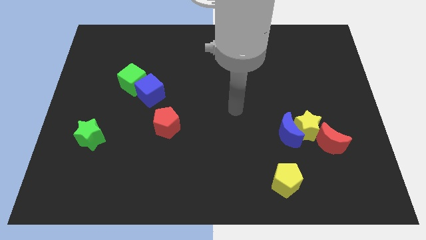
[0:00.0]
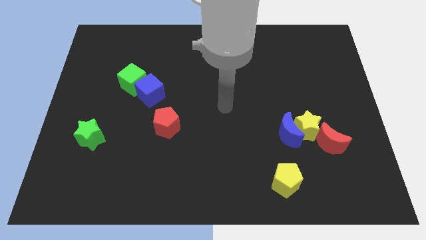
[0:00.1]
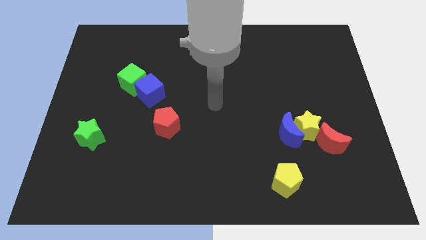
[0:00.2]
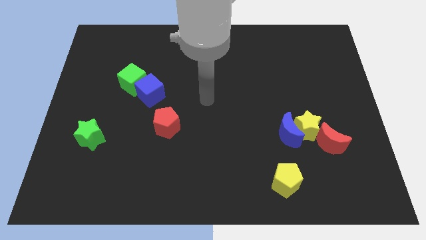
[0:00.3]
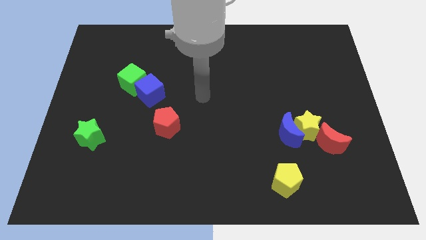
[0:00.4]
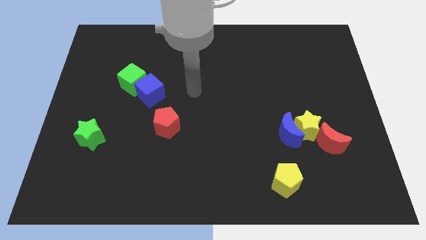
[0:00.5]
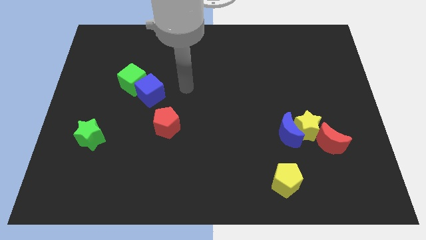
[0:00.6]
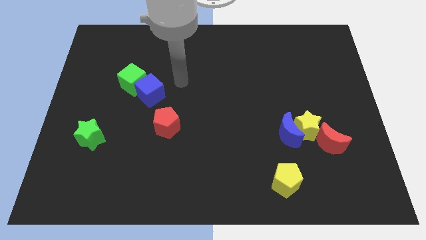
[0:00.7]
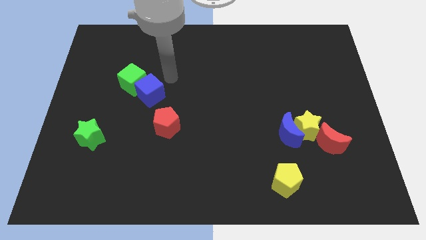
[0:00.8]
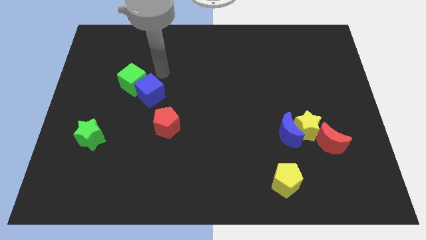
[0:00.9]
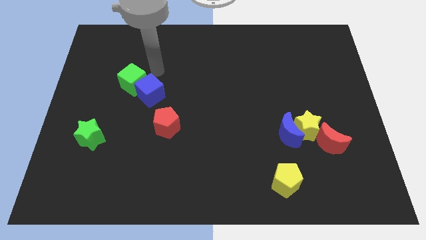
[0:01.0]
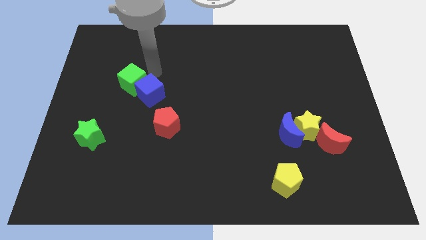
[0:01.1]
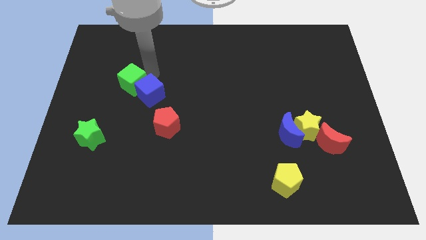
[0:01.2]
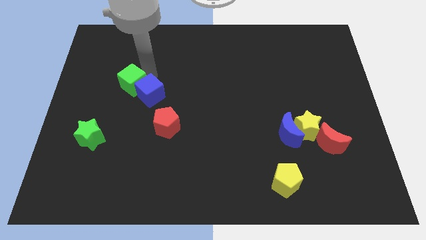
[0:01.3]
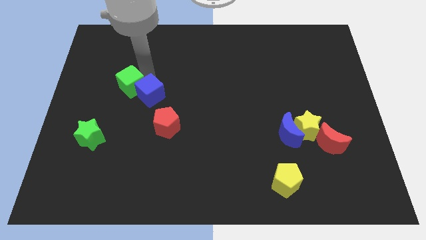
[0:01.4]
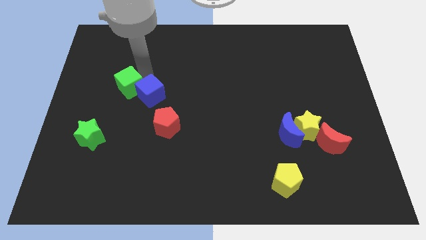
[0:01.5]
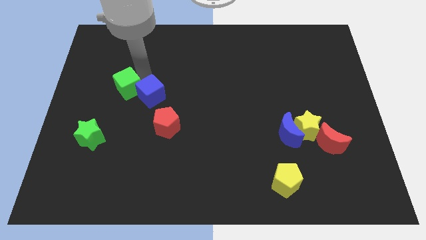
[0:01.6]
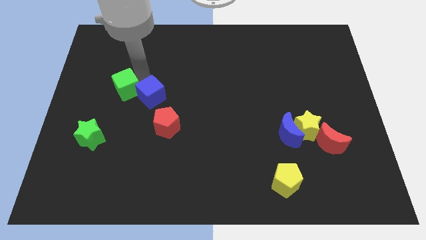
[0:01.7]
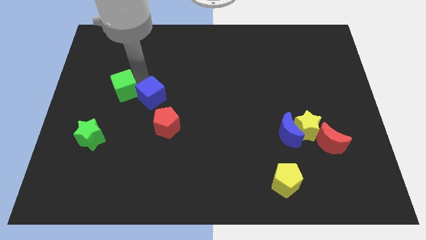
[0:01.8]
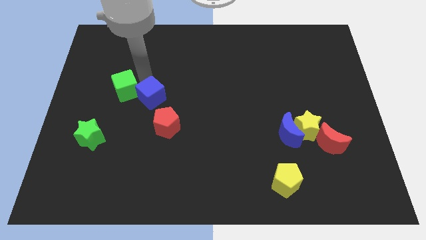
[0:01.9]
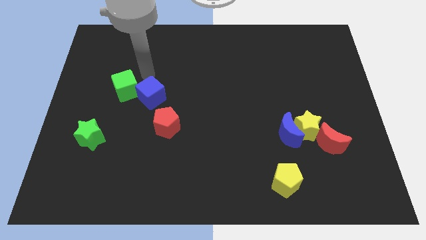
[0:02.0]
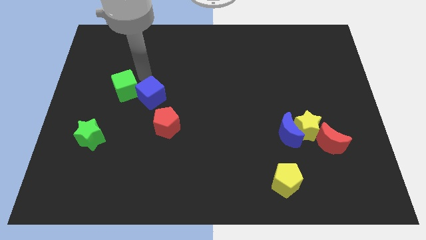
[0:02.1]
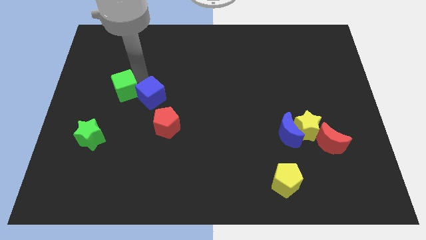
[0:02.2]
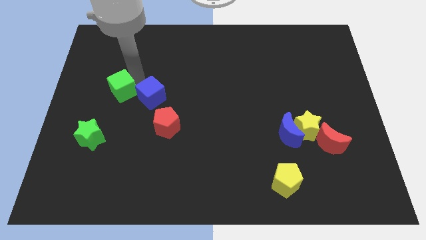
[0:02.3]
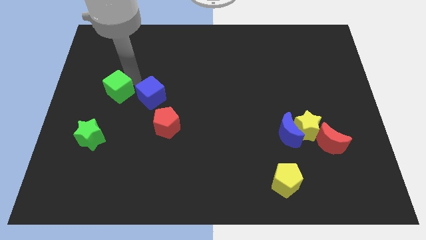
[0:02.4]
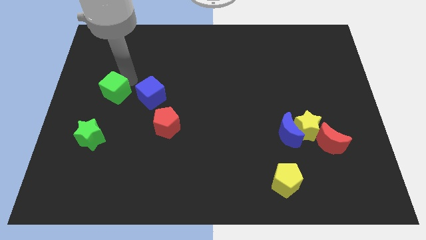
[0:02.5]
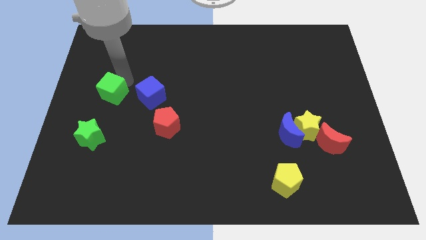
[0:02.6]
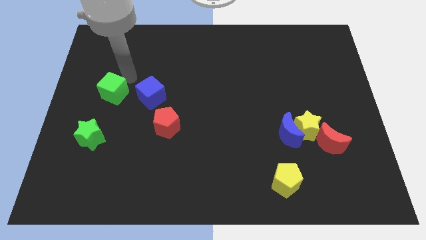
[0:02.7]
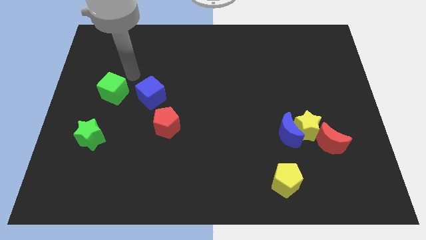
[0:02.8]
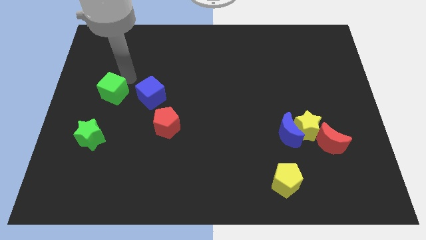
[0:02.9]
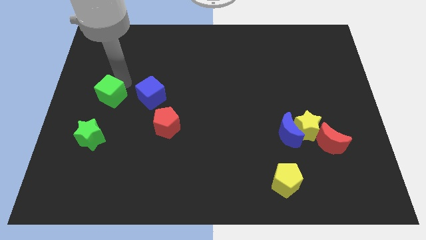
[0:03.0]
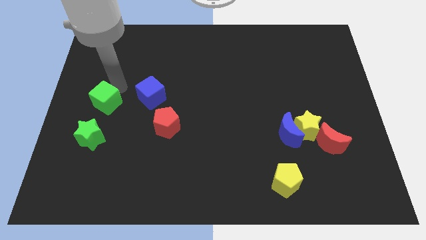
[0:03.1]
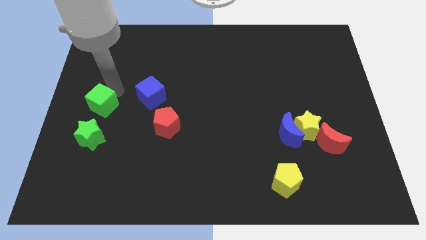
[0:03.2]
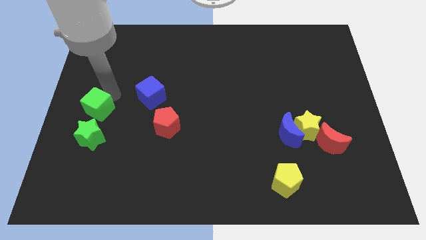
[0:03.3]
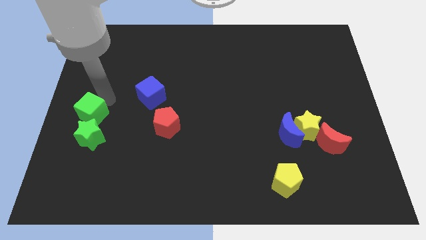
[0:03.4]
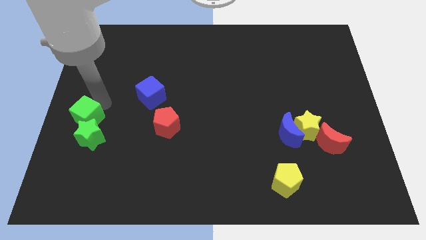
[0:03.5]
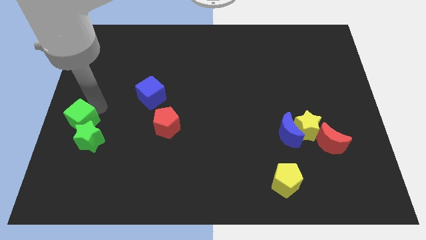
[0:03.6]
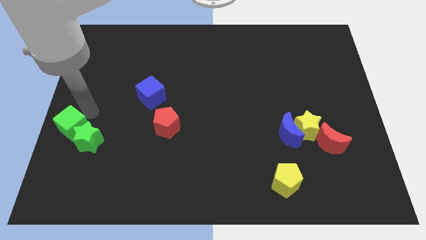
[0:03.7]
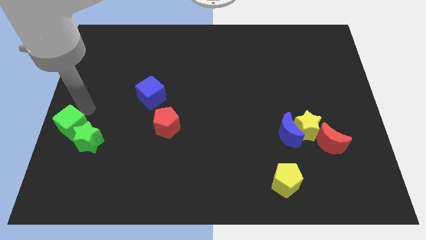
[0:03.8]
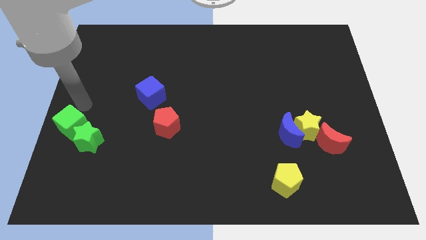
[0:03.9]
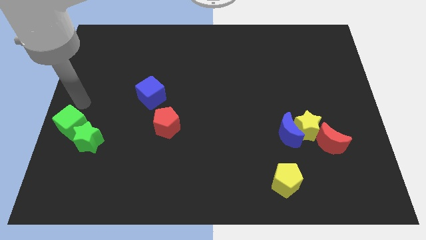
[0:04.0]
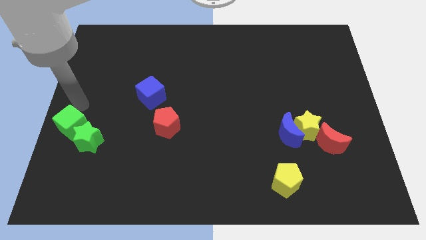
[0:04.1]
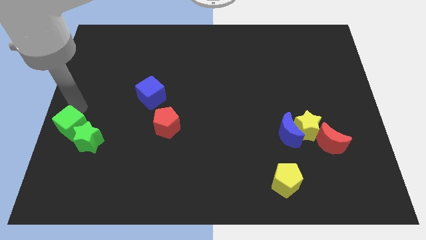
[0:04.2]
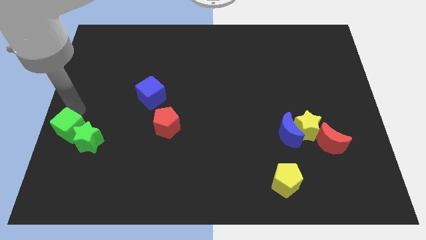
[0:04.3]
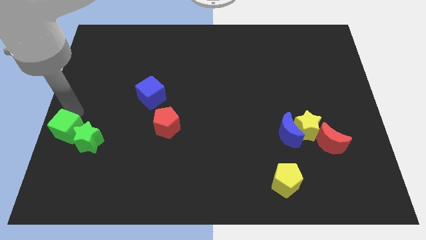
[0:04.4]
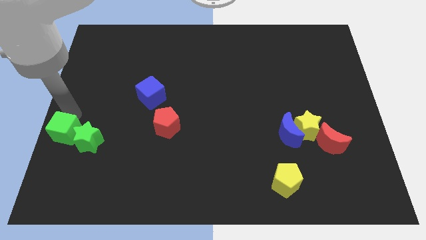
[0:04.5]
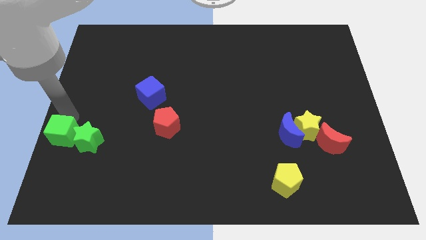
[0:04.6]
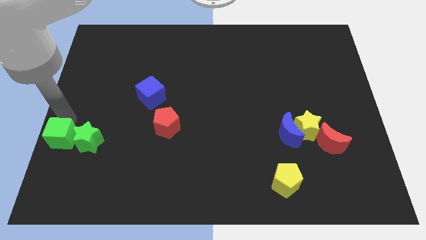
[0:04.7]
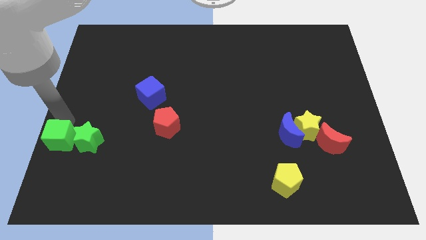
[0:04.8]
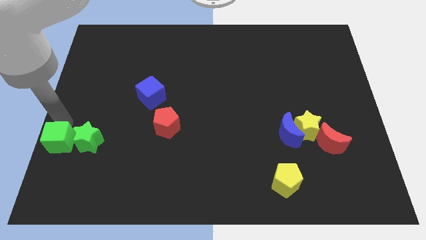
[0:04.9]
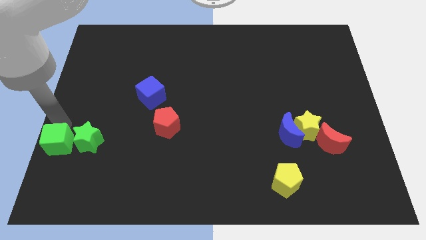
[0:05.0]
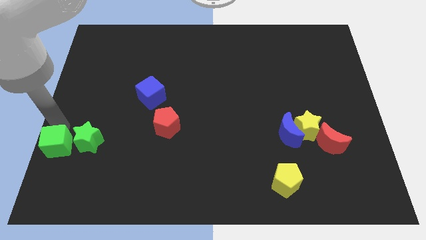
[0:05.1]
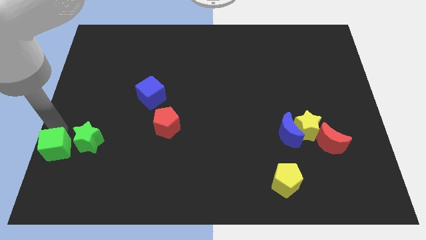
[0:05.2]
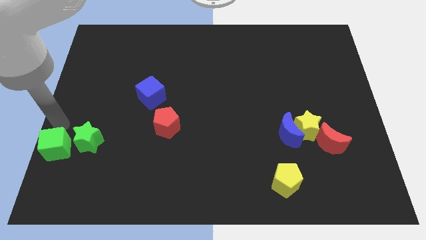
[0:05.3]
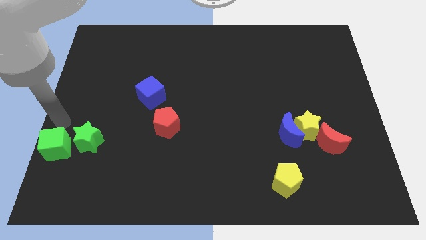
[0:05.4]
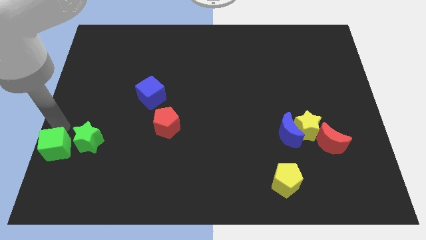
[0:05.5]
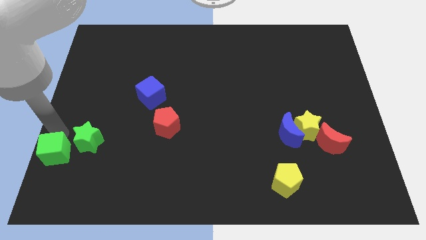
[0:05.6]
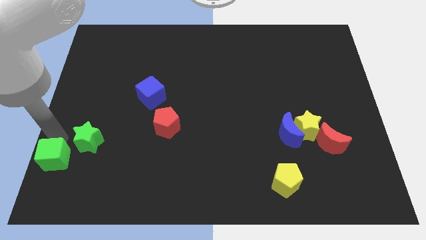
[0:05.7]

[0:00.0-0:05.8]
put the green cube to the bottom left corner
